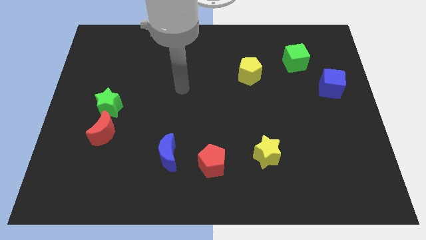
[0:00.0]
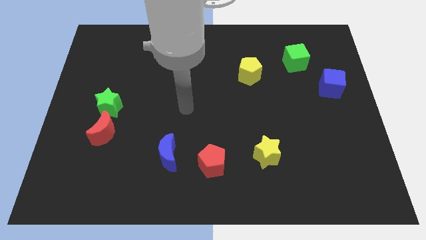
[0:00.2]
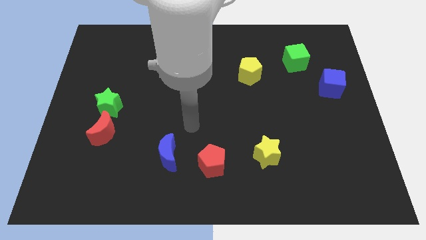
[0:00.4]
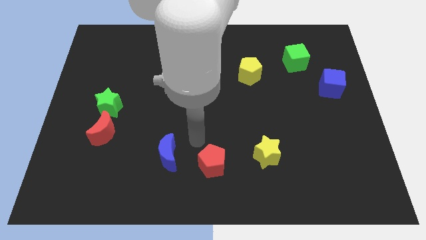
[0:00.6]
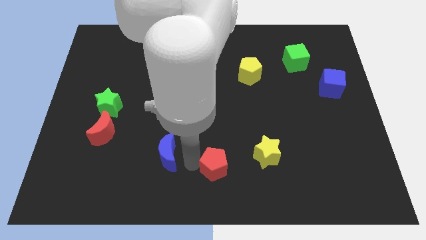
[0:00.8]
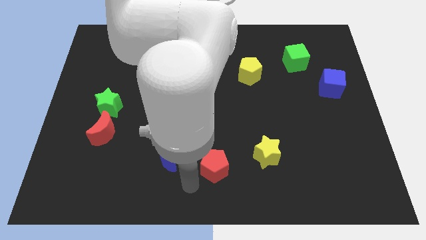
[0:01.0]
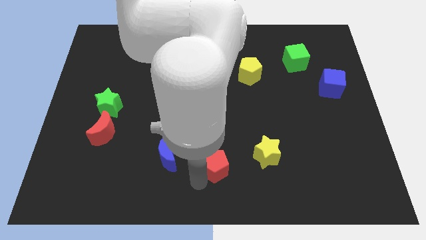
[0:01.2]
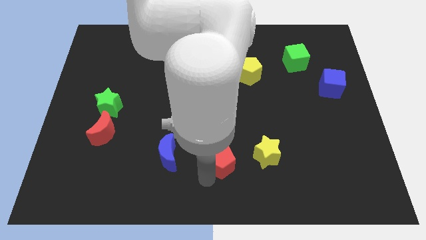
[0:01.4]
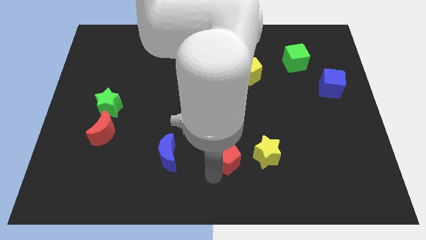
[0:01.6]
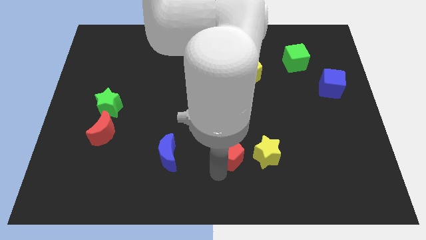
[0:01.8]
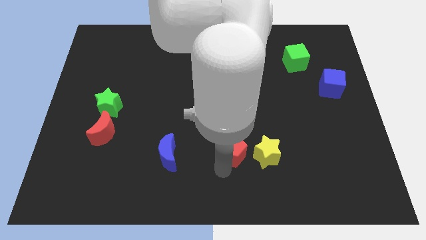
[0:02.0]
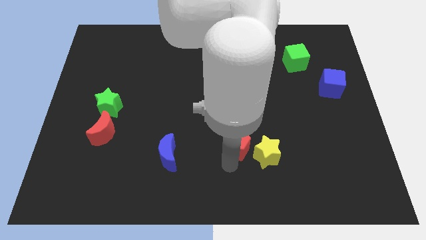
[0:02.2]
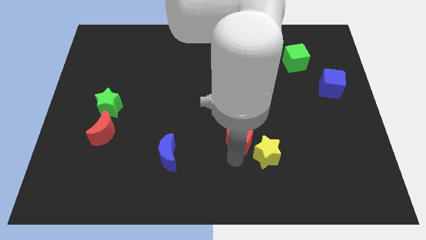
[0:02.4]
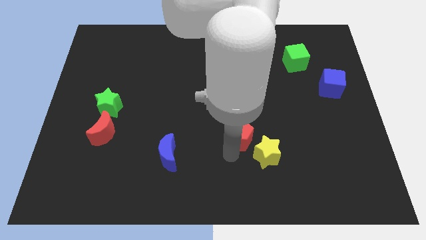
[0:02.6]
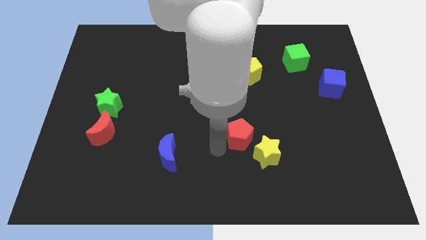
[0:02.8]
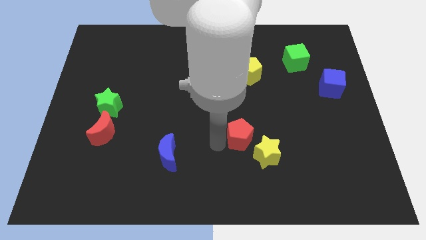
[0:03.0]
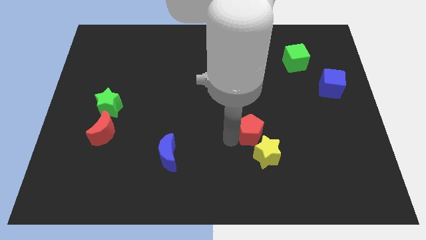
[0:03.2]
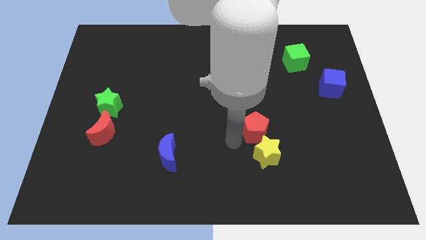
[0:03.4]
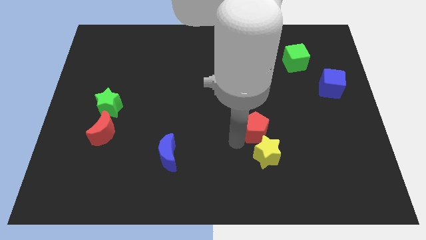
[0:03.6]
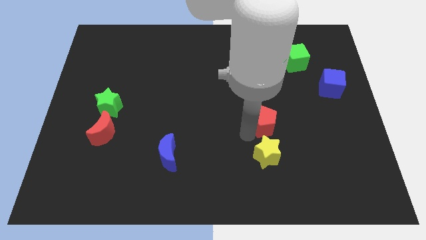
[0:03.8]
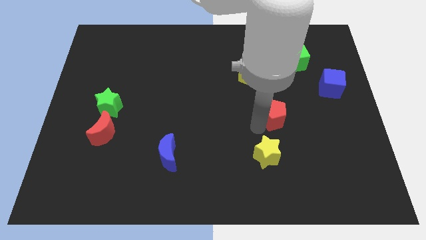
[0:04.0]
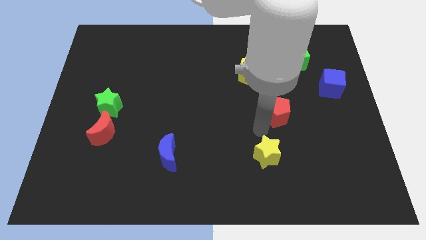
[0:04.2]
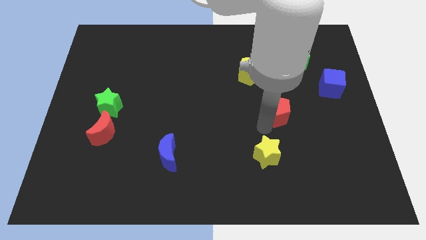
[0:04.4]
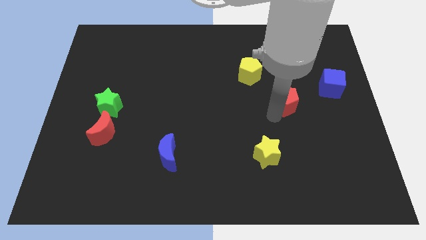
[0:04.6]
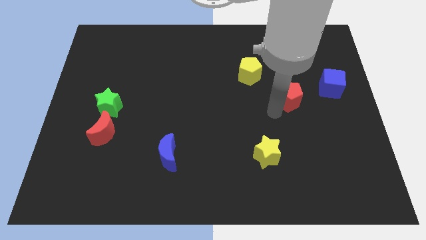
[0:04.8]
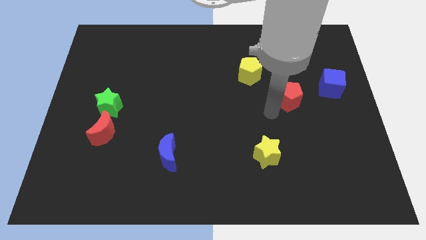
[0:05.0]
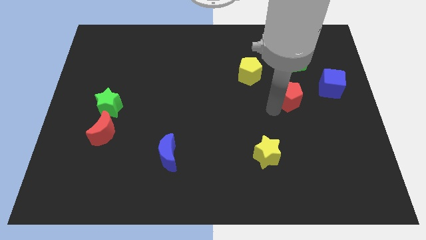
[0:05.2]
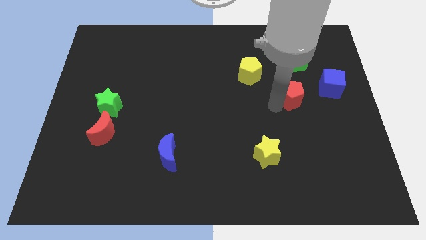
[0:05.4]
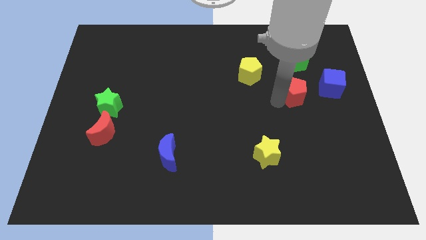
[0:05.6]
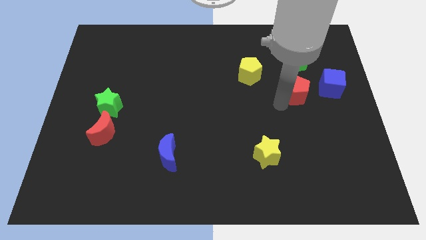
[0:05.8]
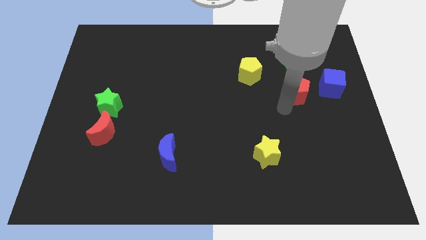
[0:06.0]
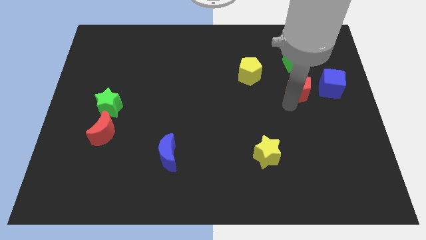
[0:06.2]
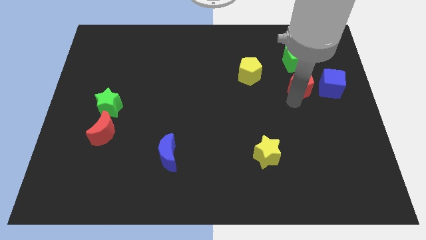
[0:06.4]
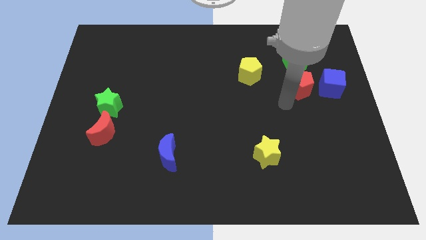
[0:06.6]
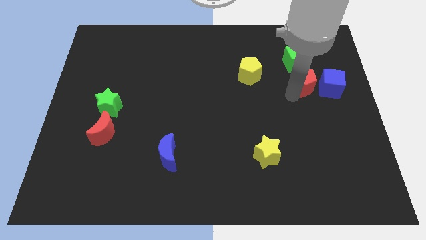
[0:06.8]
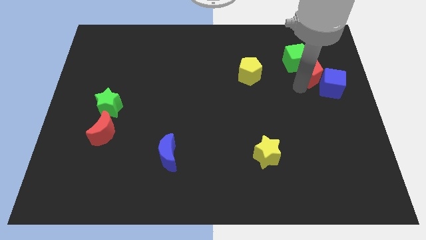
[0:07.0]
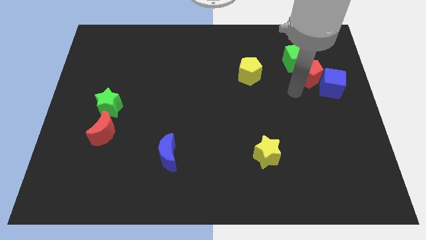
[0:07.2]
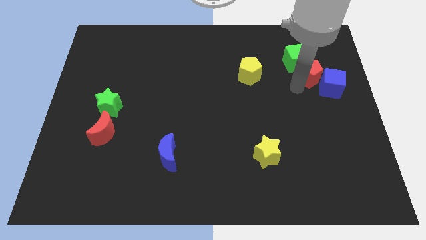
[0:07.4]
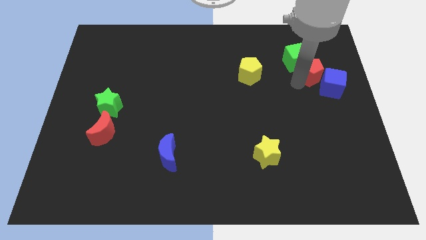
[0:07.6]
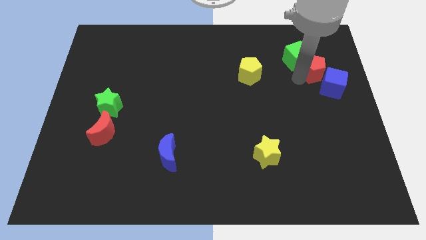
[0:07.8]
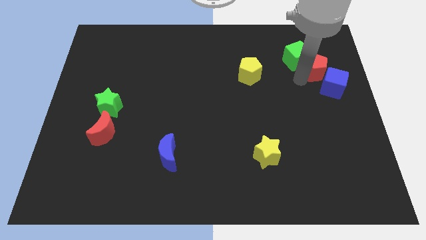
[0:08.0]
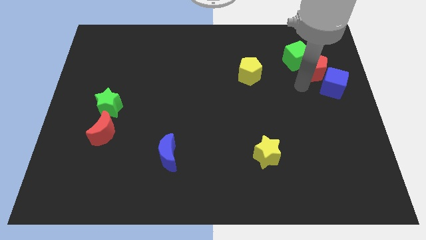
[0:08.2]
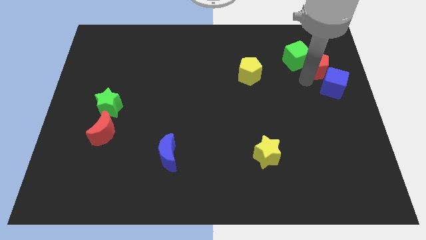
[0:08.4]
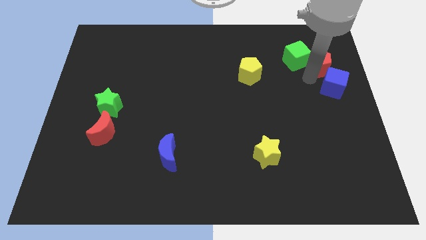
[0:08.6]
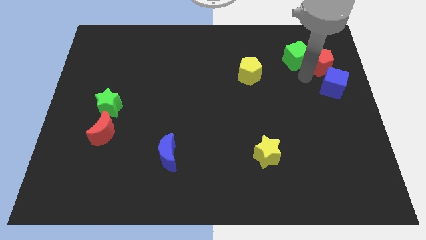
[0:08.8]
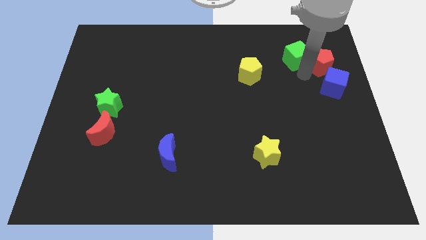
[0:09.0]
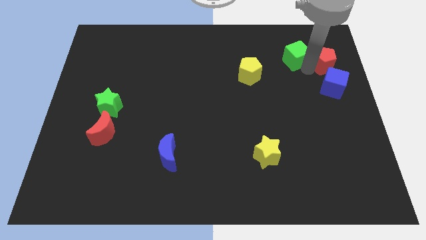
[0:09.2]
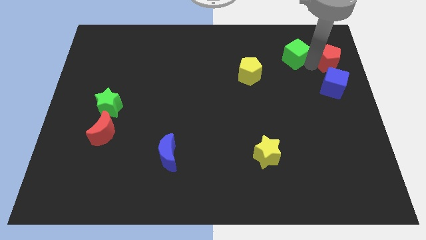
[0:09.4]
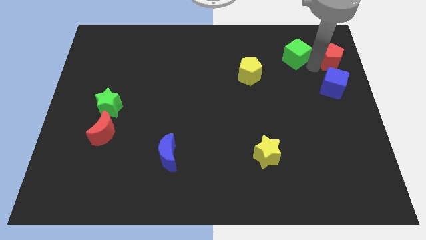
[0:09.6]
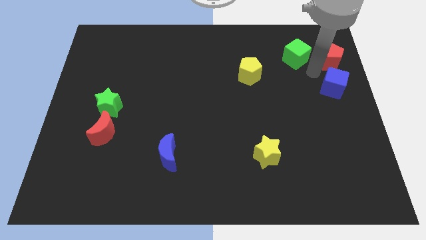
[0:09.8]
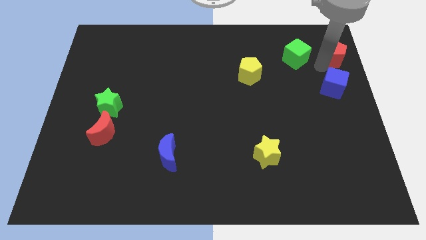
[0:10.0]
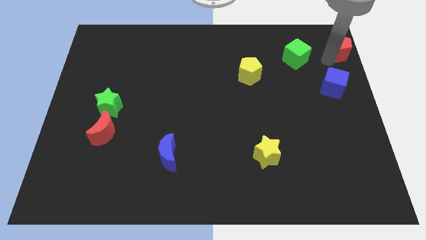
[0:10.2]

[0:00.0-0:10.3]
slide the red pentagon to the top right
